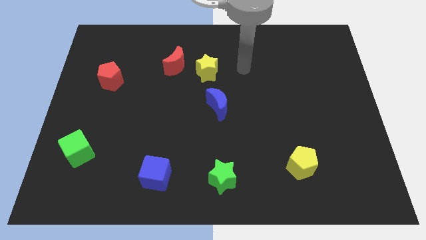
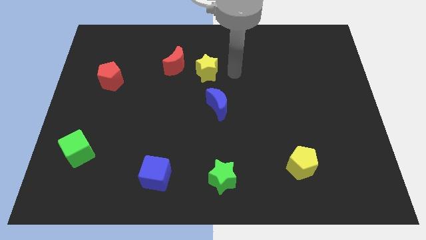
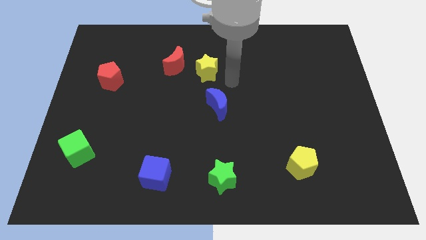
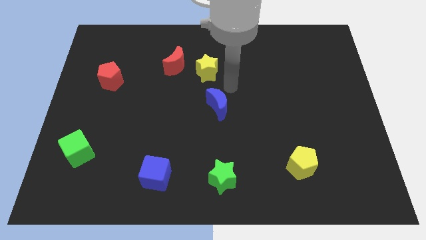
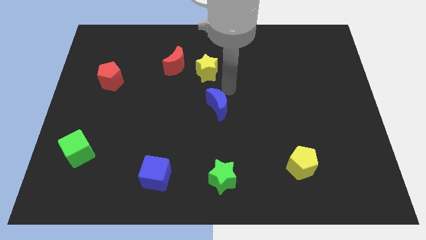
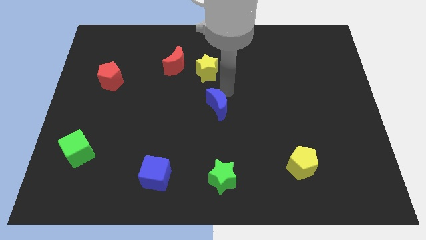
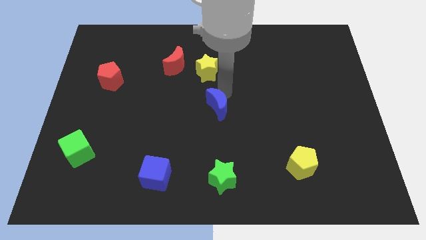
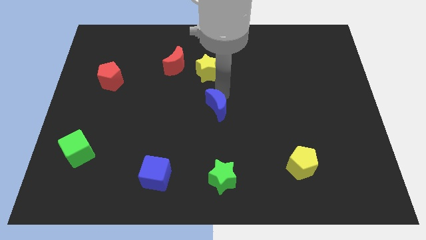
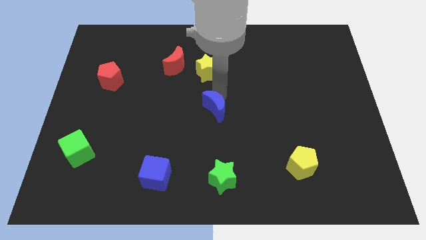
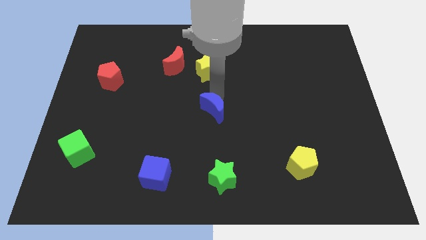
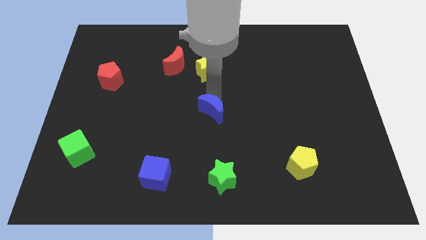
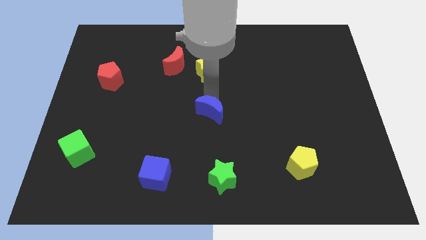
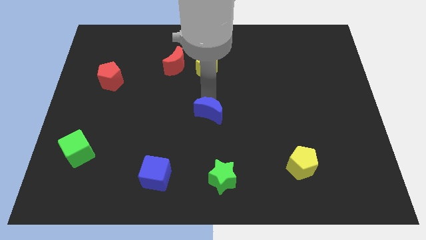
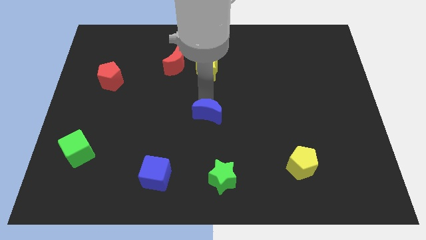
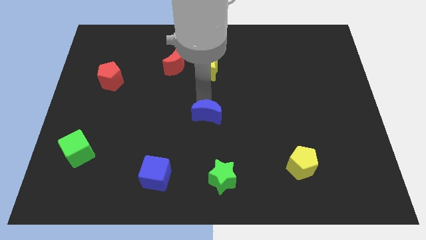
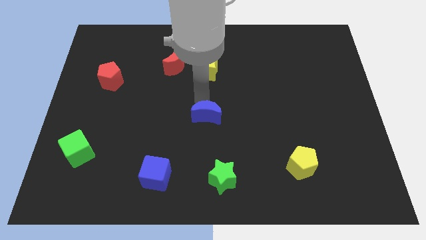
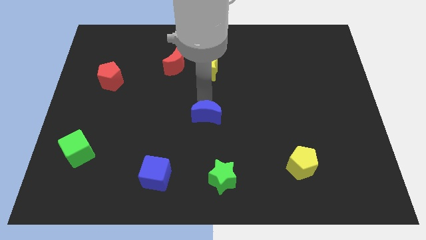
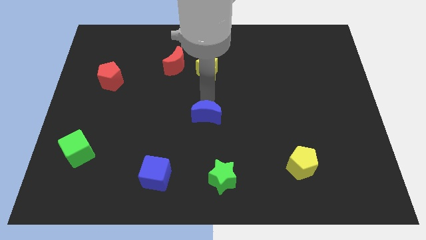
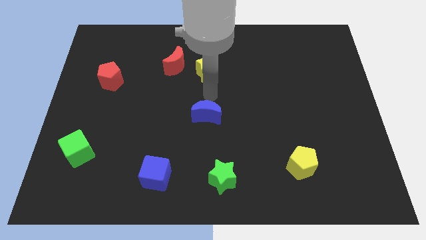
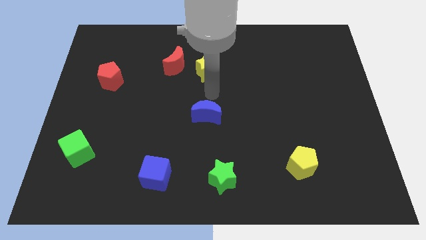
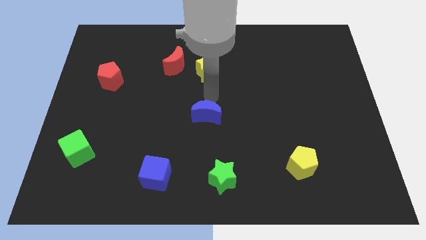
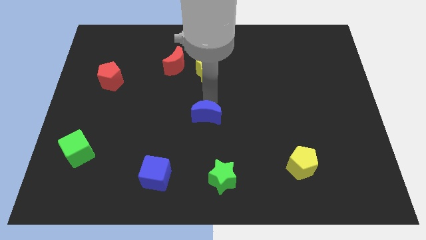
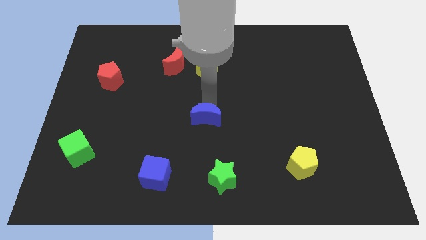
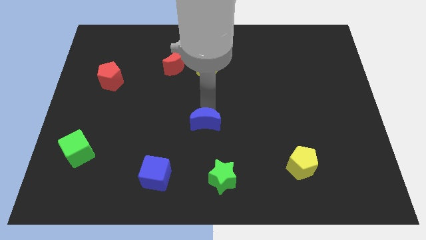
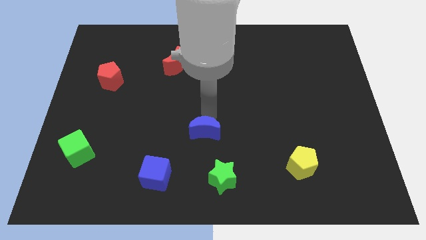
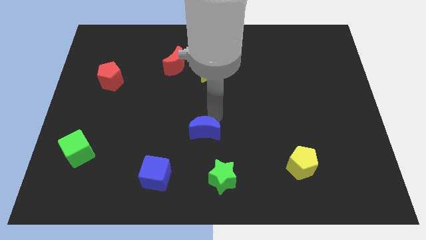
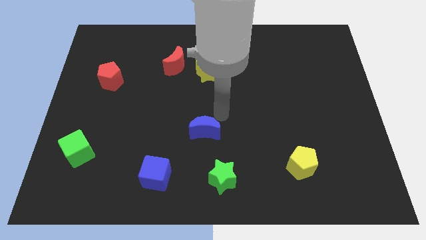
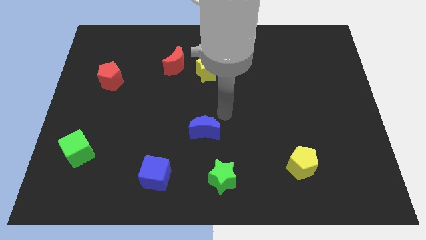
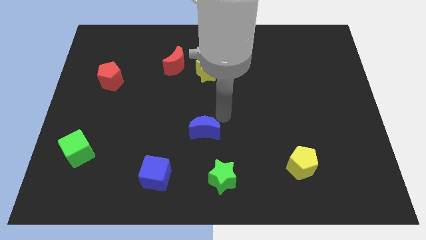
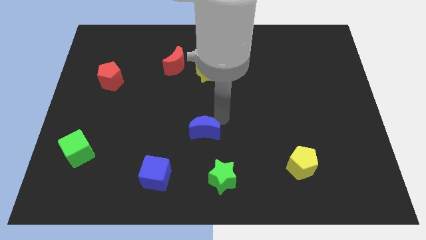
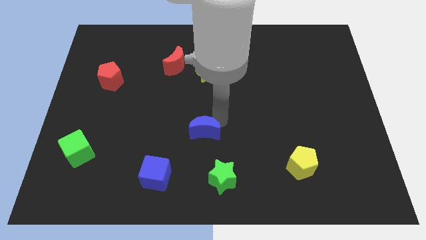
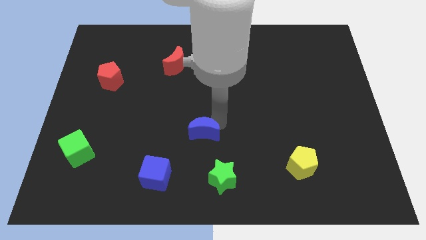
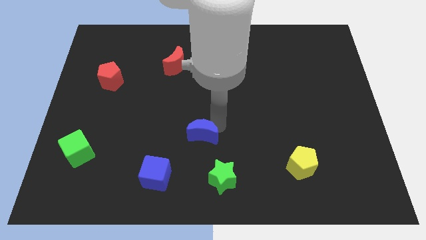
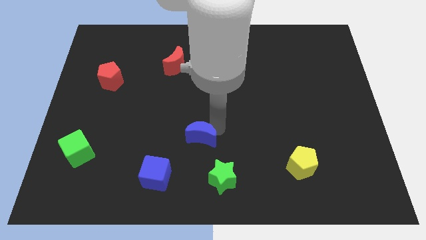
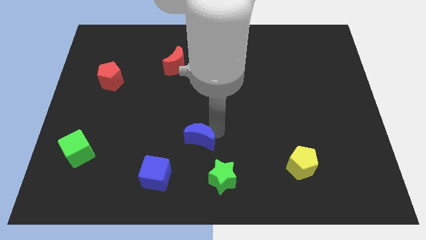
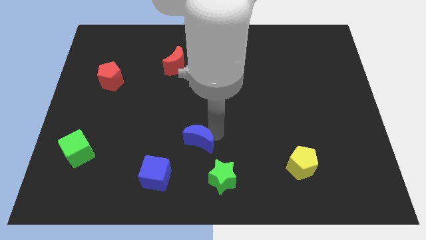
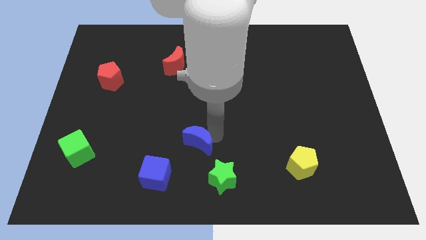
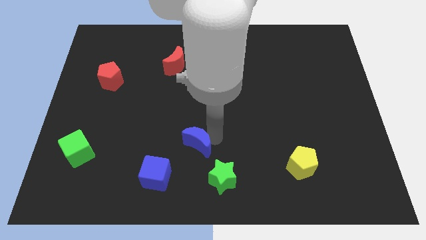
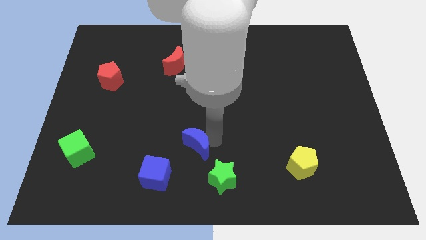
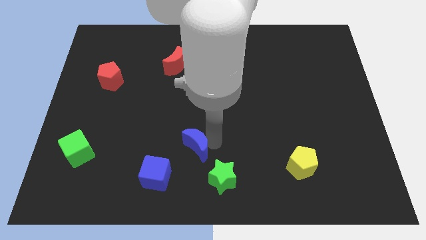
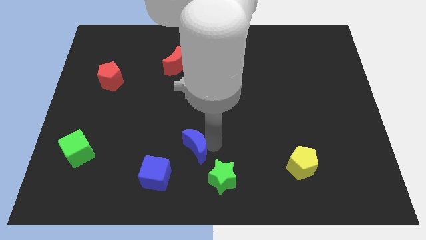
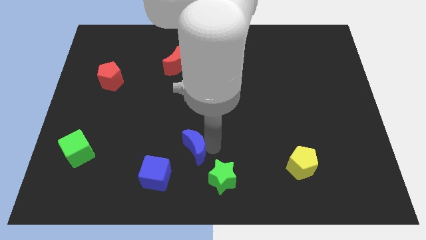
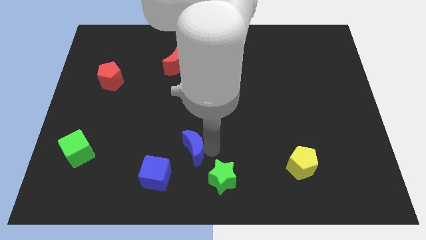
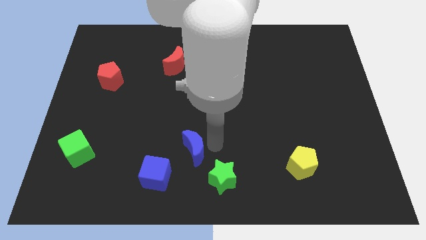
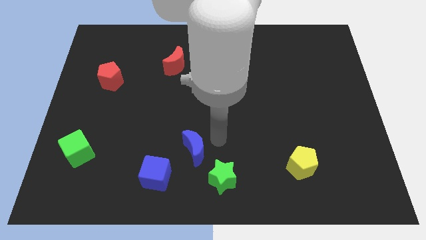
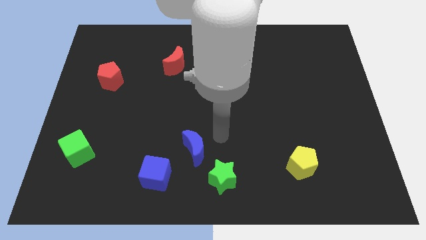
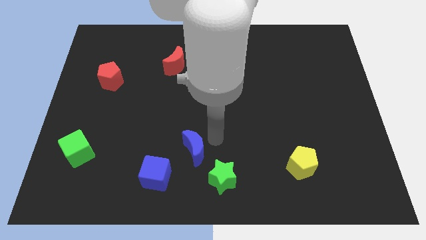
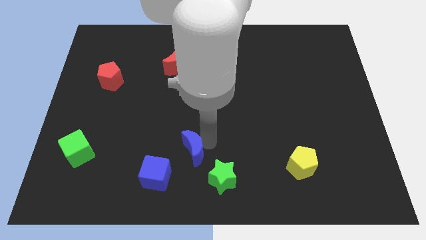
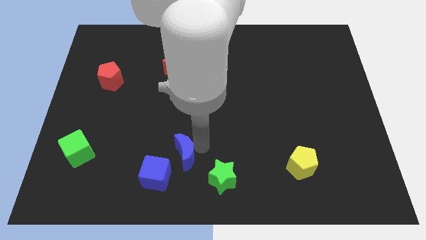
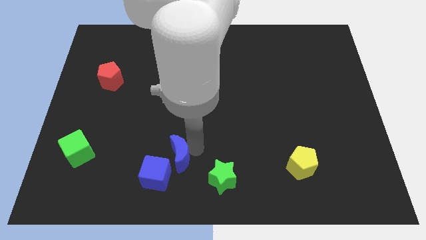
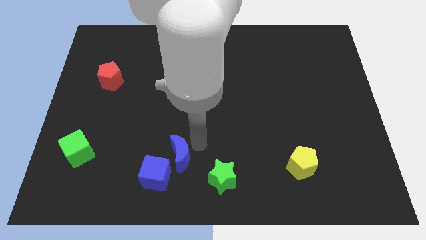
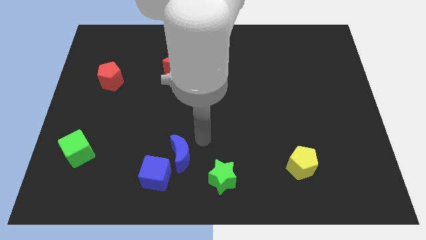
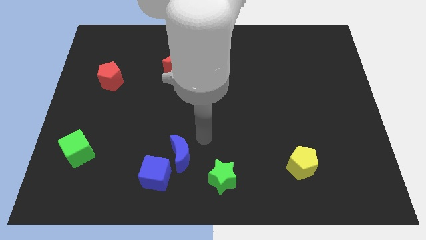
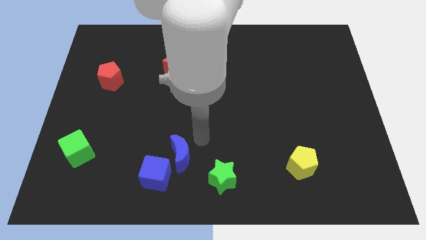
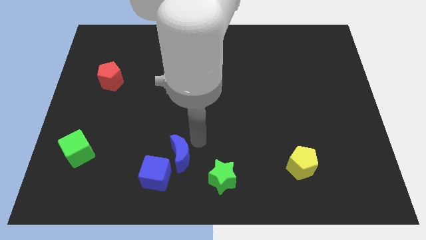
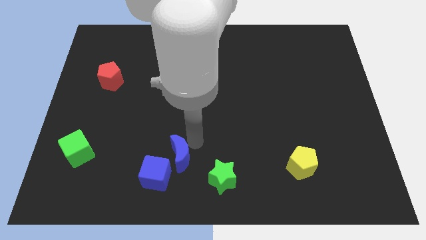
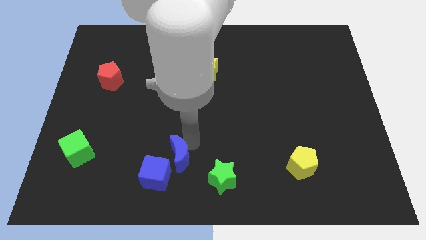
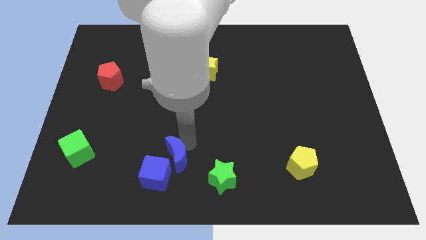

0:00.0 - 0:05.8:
slide the blue moon to the blue cube

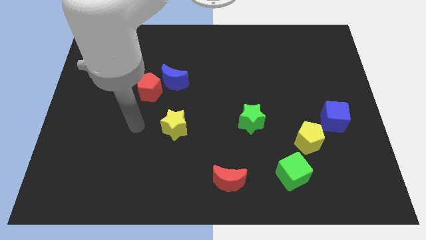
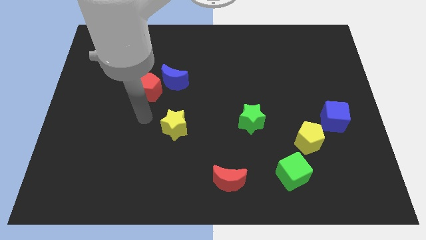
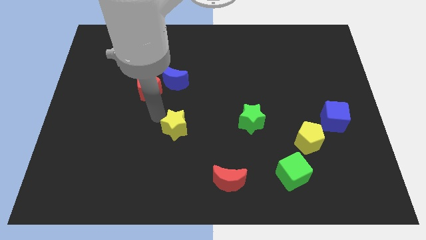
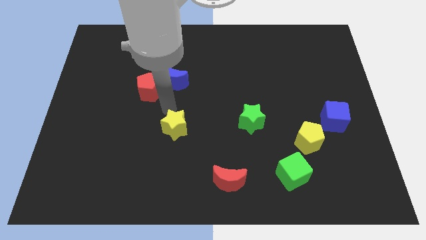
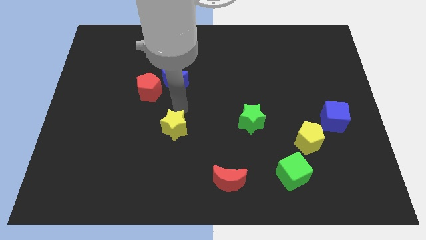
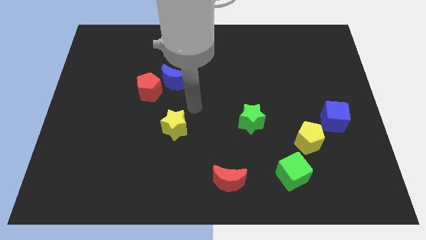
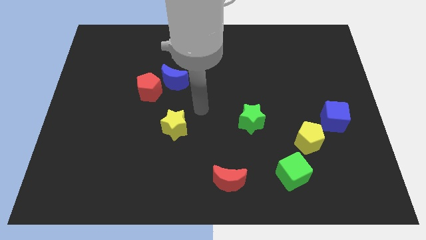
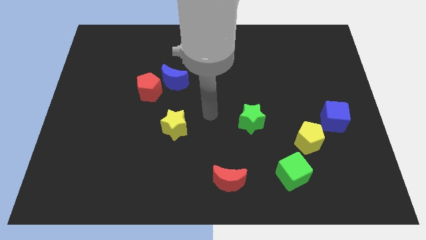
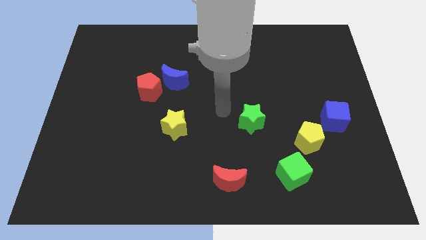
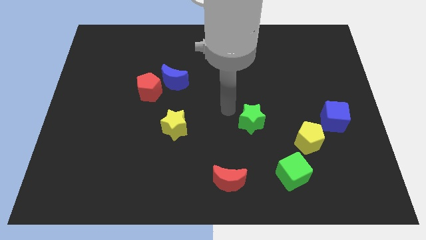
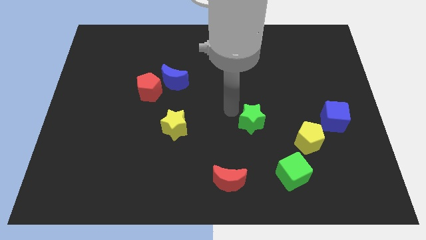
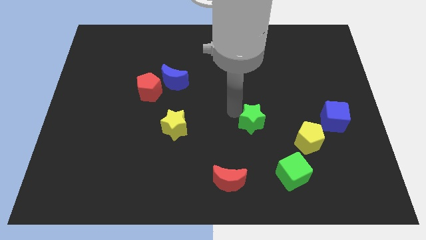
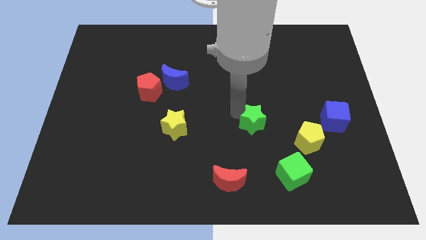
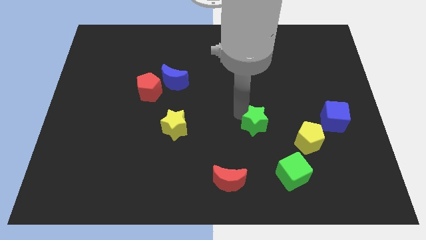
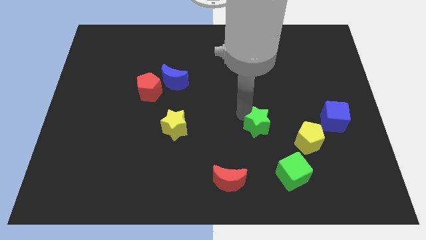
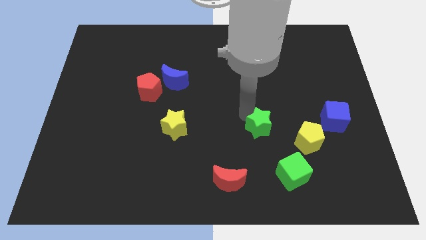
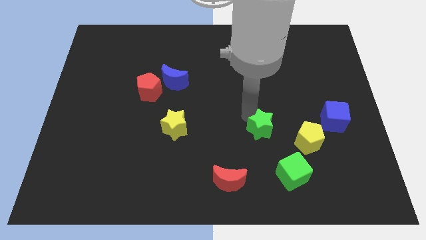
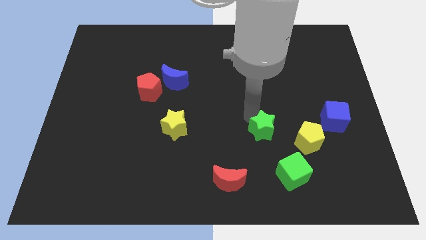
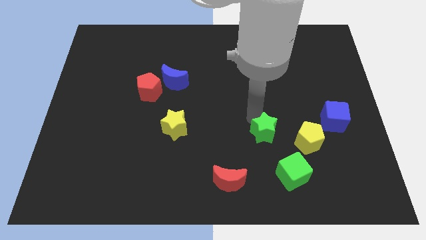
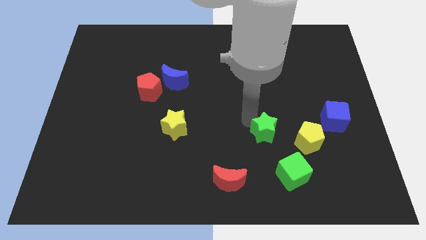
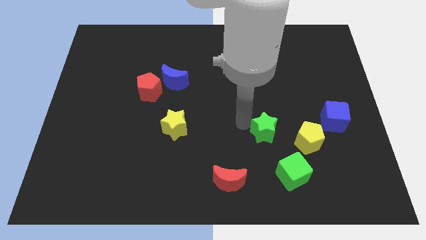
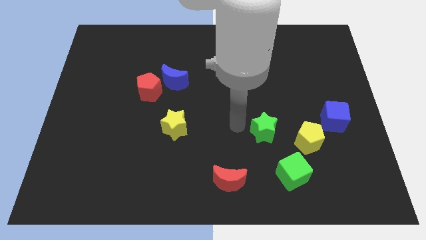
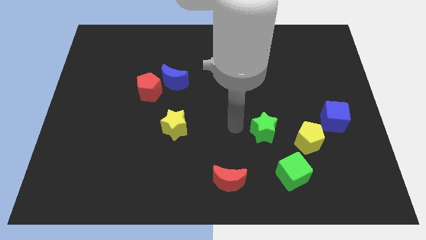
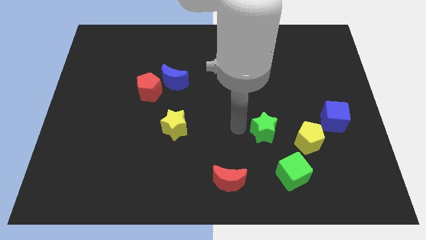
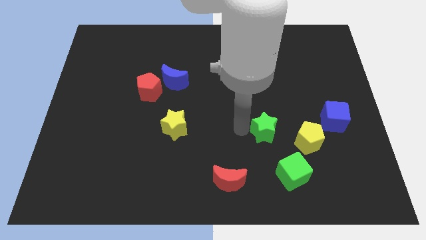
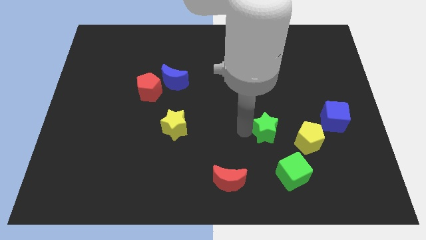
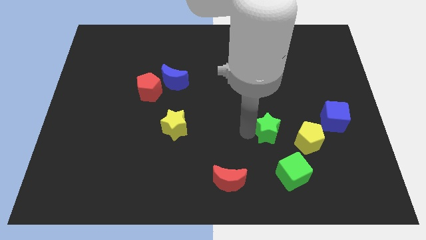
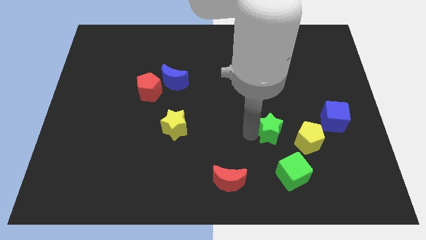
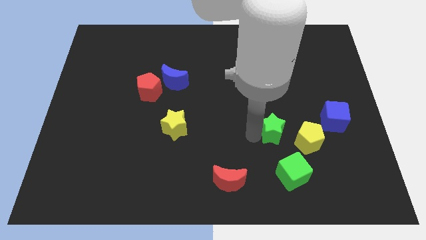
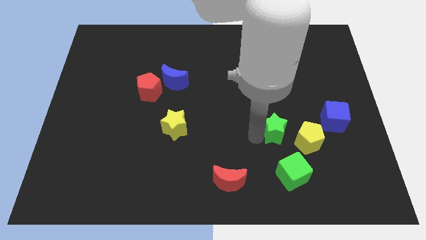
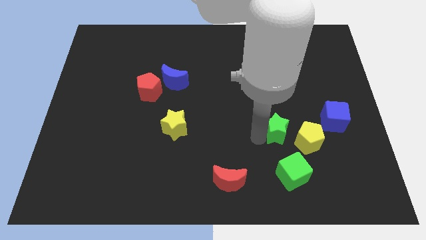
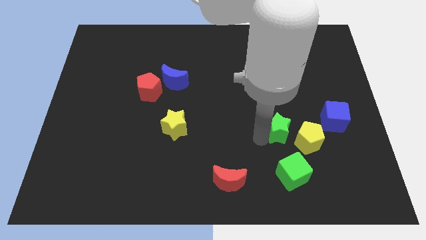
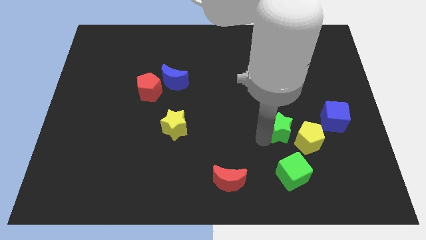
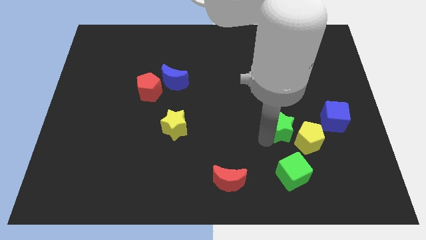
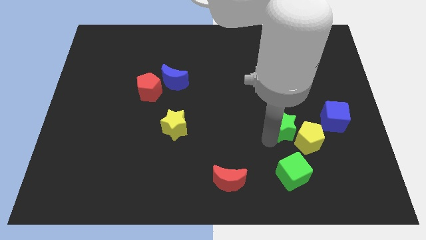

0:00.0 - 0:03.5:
move the green star next to the yellow pentagon
